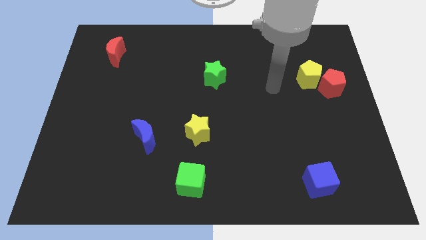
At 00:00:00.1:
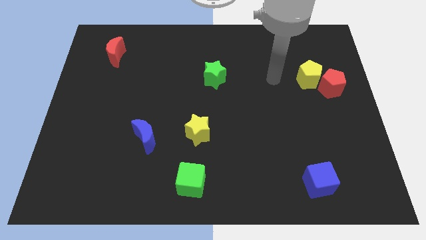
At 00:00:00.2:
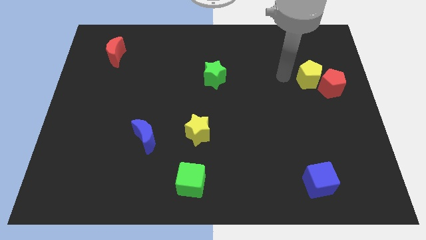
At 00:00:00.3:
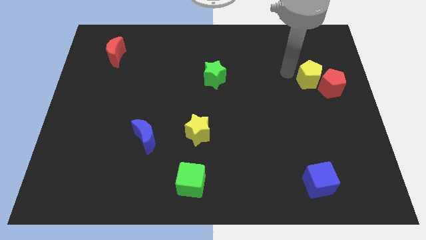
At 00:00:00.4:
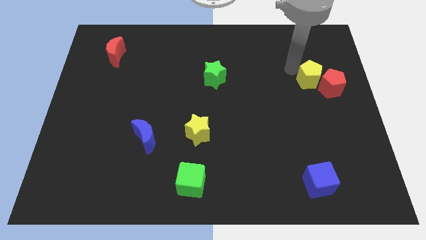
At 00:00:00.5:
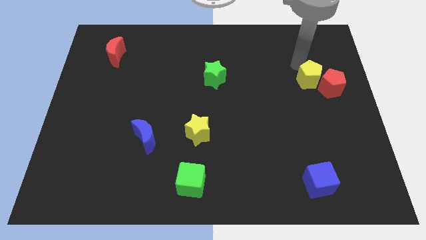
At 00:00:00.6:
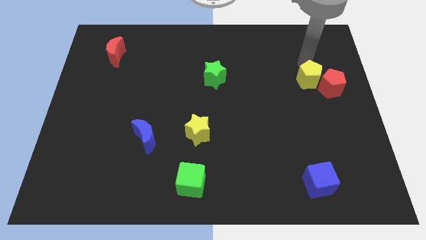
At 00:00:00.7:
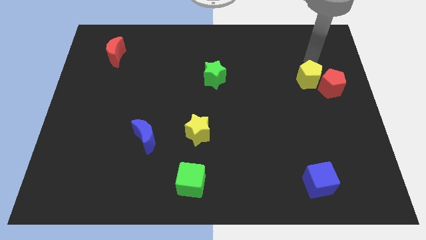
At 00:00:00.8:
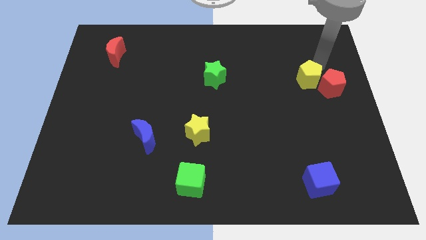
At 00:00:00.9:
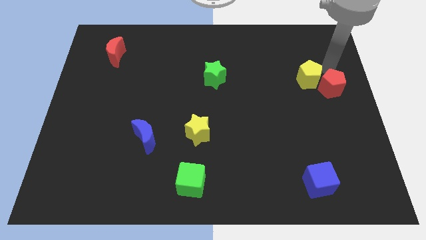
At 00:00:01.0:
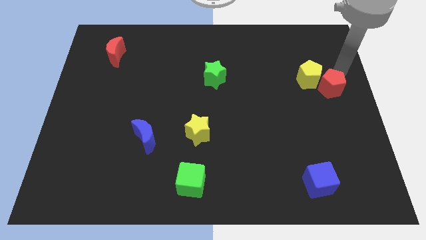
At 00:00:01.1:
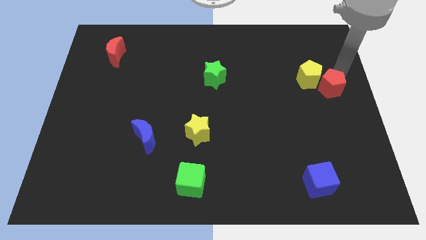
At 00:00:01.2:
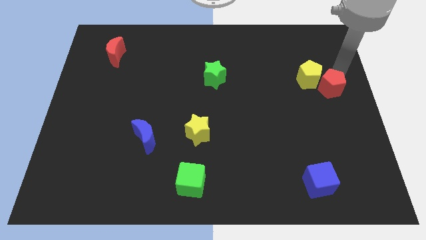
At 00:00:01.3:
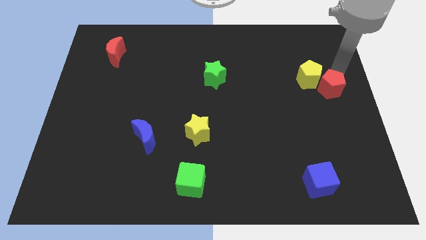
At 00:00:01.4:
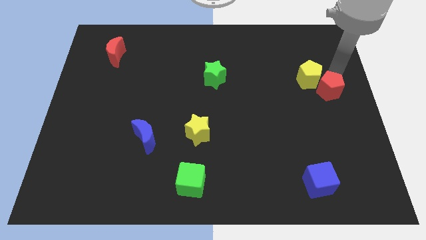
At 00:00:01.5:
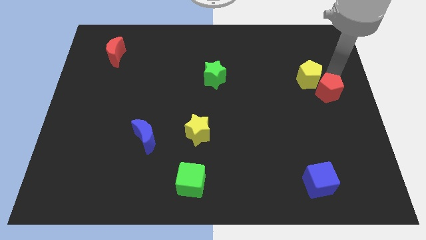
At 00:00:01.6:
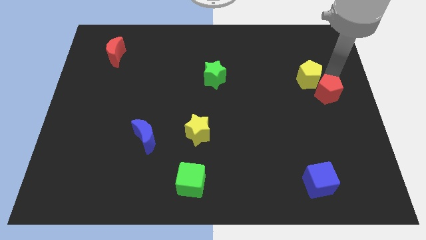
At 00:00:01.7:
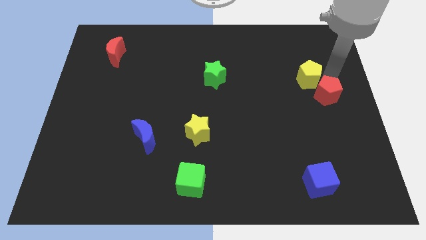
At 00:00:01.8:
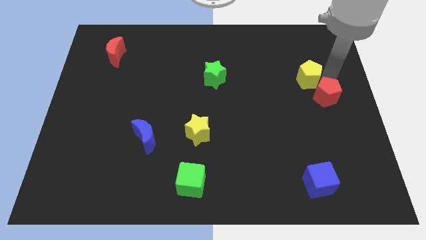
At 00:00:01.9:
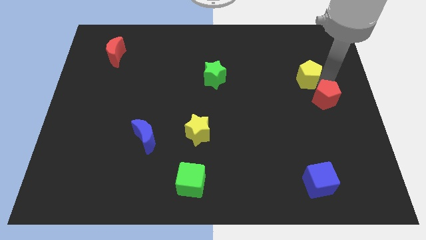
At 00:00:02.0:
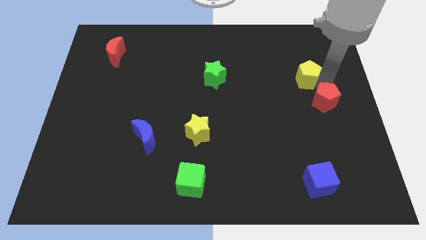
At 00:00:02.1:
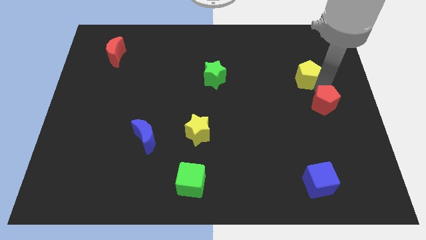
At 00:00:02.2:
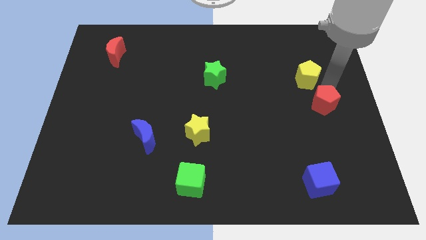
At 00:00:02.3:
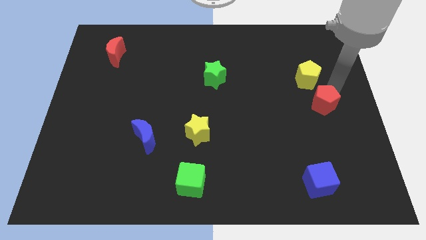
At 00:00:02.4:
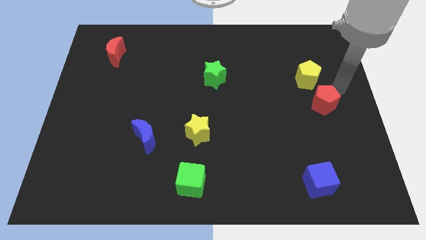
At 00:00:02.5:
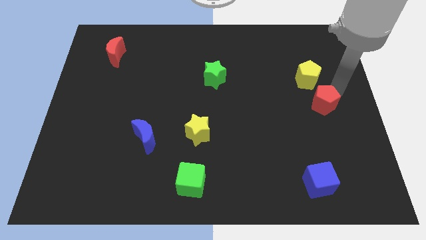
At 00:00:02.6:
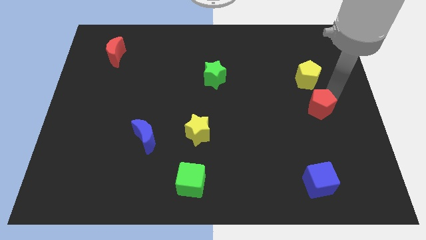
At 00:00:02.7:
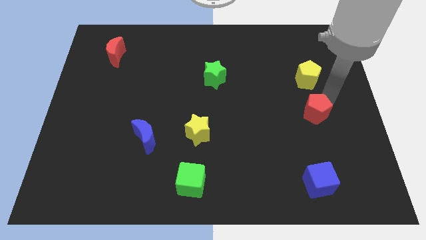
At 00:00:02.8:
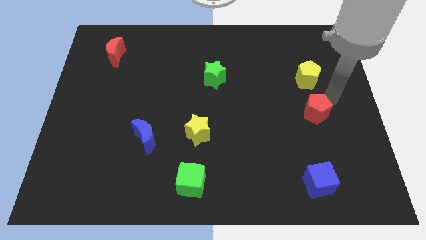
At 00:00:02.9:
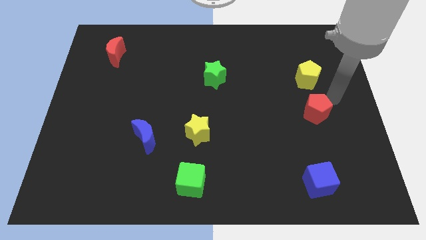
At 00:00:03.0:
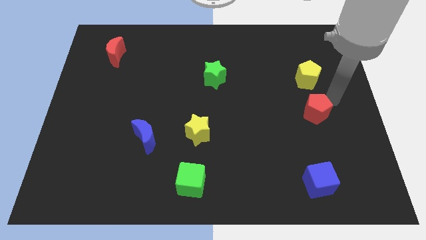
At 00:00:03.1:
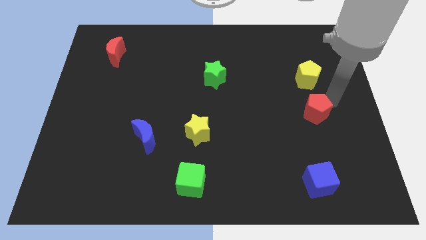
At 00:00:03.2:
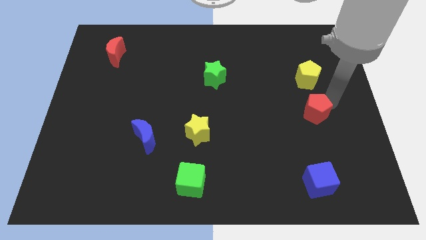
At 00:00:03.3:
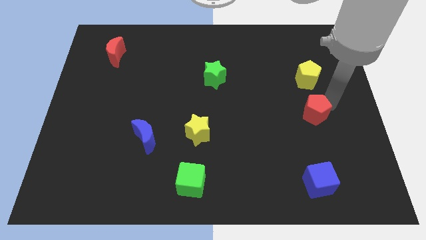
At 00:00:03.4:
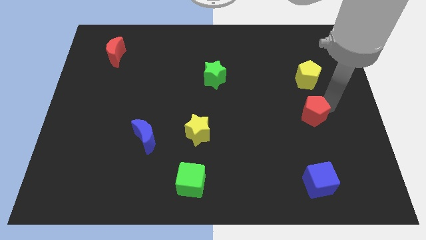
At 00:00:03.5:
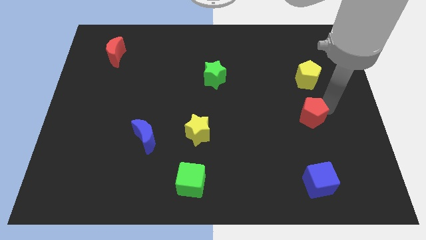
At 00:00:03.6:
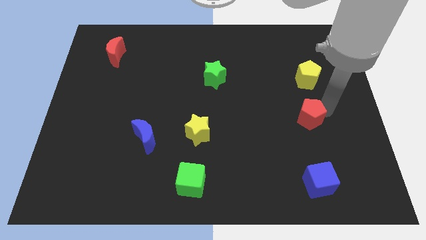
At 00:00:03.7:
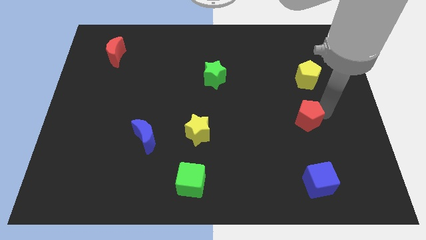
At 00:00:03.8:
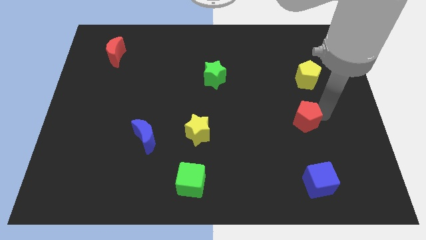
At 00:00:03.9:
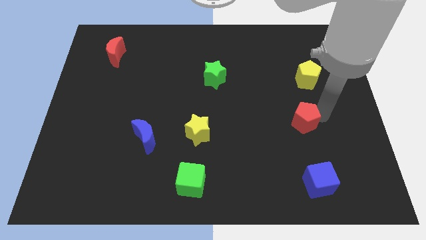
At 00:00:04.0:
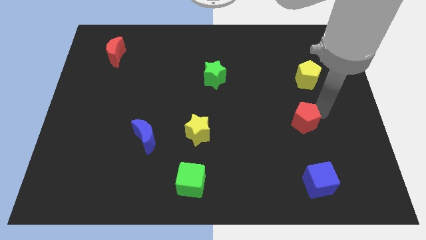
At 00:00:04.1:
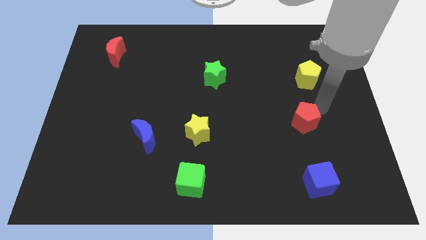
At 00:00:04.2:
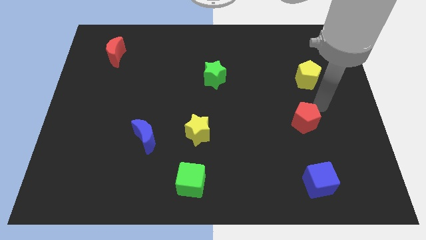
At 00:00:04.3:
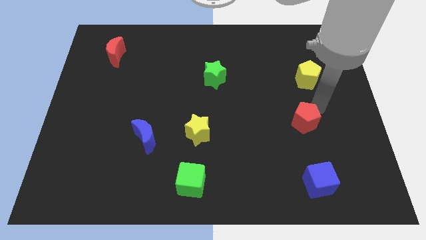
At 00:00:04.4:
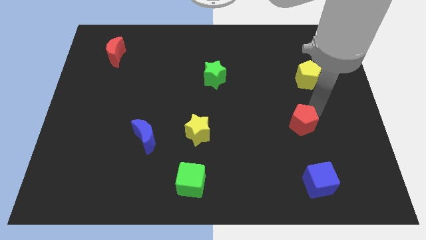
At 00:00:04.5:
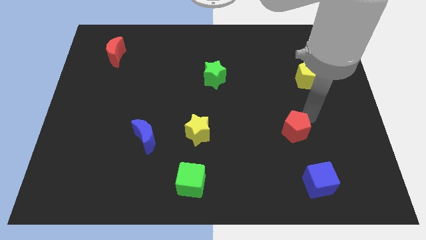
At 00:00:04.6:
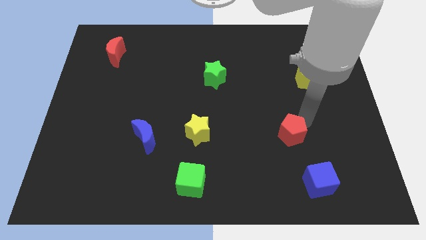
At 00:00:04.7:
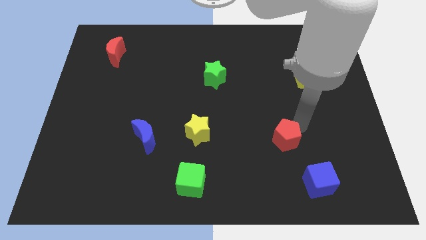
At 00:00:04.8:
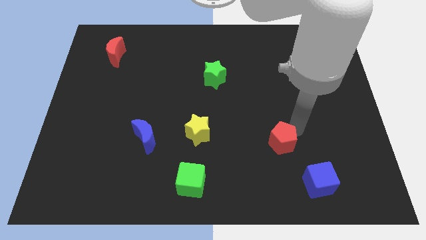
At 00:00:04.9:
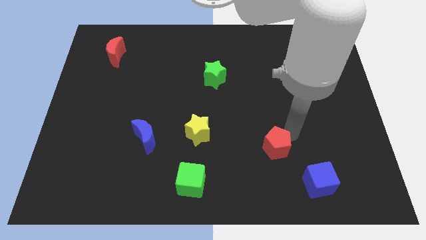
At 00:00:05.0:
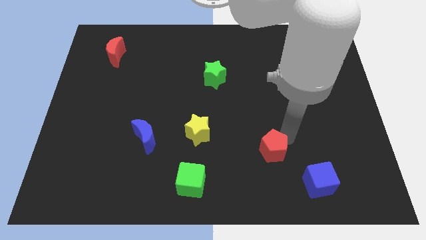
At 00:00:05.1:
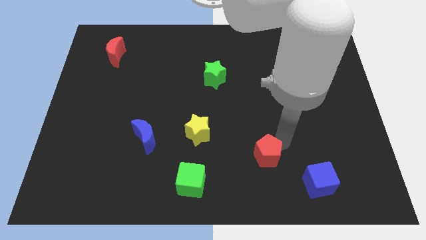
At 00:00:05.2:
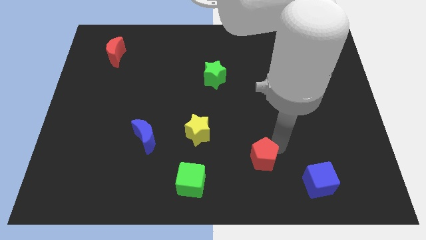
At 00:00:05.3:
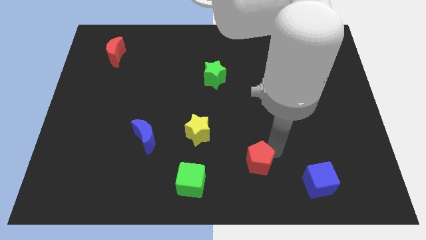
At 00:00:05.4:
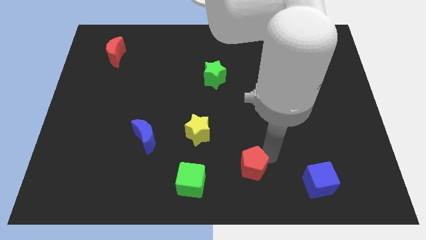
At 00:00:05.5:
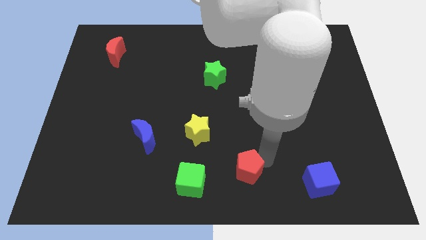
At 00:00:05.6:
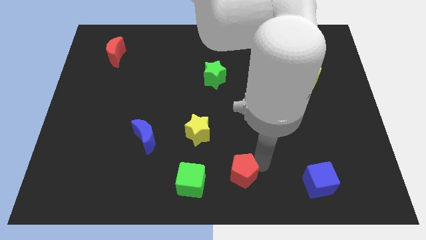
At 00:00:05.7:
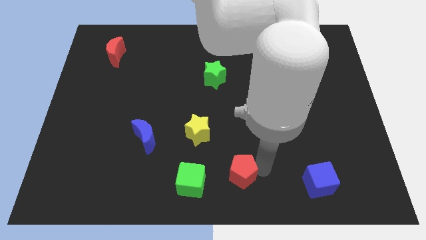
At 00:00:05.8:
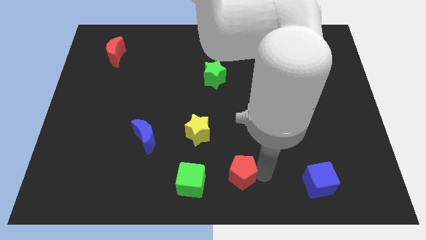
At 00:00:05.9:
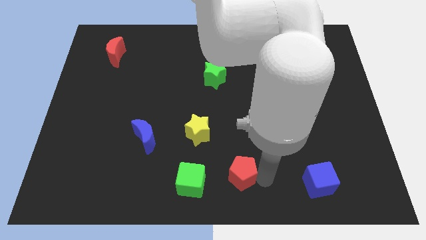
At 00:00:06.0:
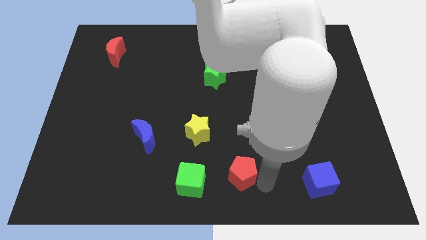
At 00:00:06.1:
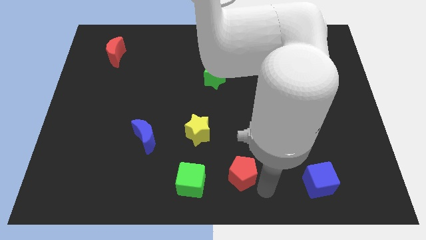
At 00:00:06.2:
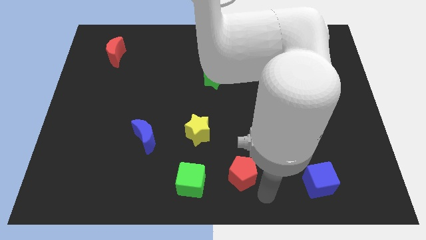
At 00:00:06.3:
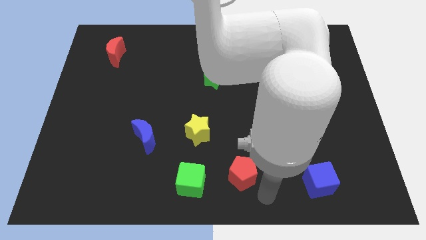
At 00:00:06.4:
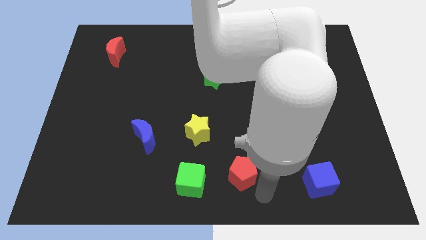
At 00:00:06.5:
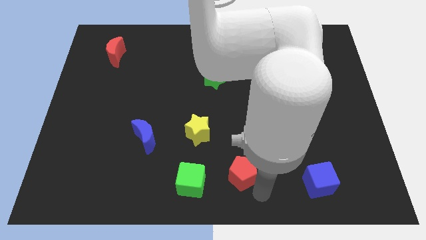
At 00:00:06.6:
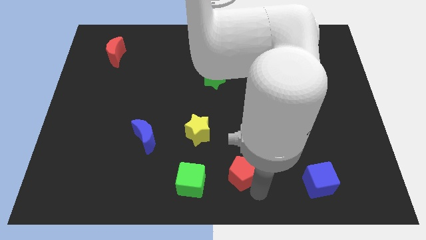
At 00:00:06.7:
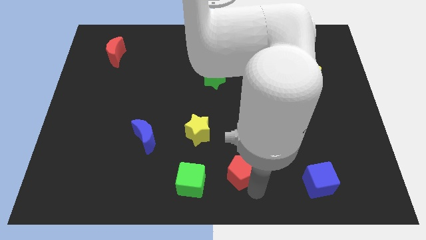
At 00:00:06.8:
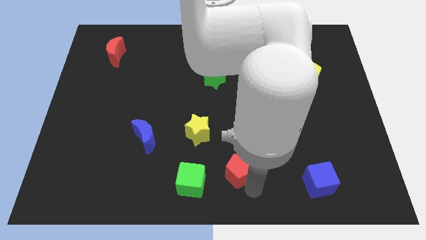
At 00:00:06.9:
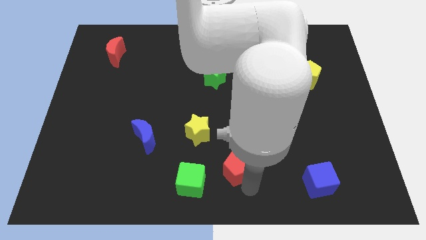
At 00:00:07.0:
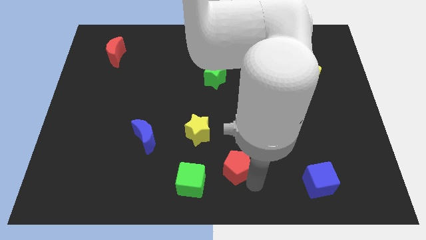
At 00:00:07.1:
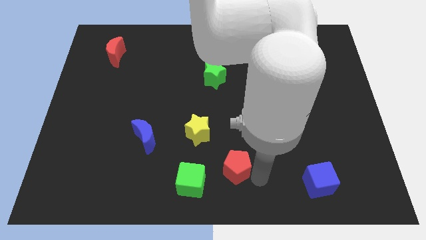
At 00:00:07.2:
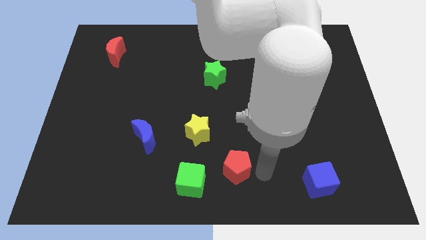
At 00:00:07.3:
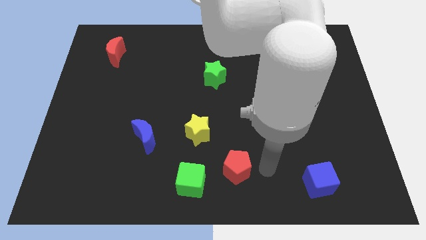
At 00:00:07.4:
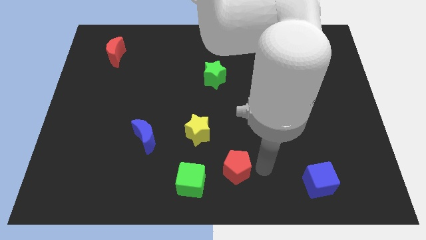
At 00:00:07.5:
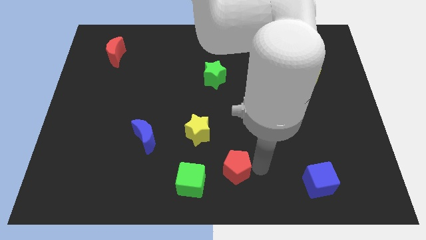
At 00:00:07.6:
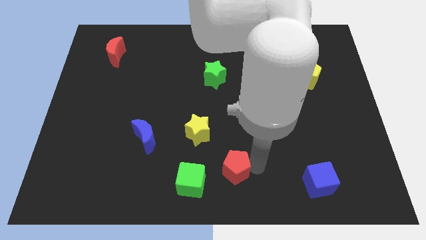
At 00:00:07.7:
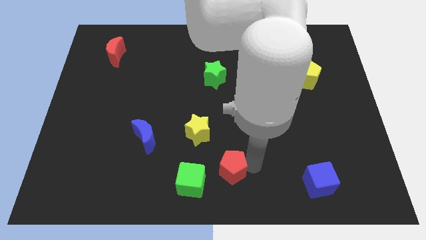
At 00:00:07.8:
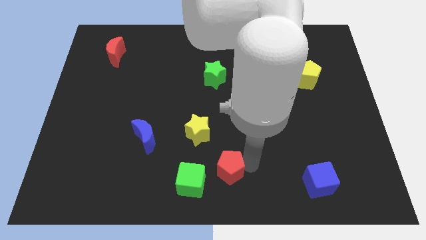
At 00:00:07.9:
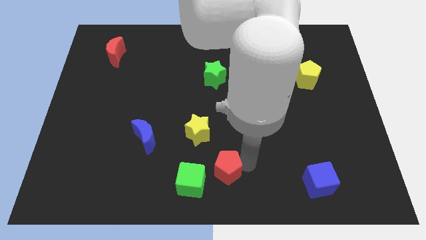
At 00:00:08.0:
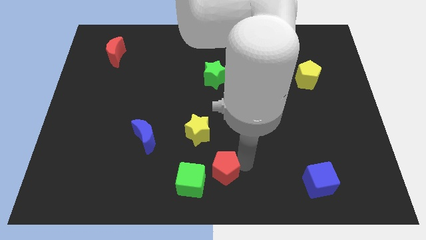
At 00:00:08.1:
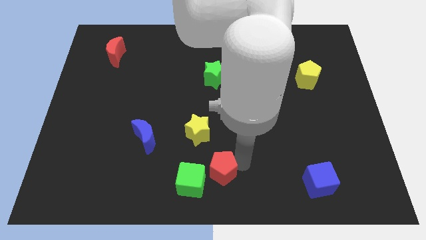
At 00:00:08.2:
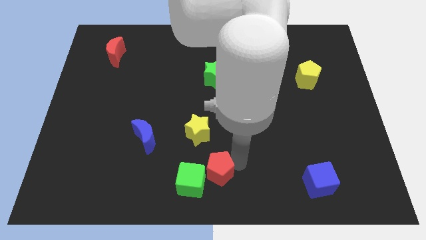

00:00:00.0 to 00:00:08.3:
slide the red pentagon to the green cube

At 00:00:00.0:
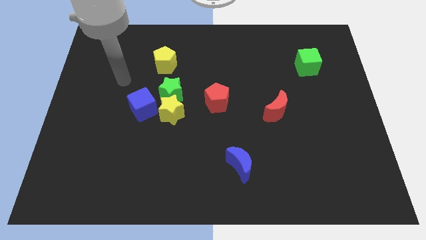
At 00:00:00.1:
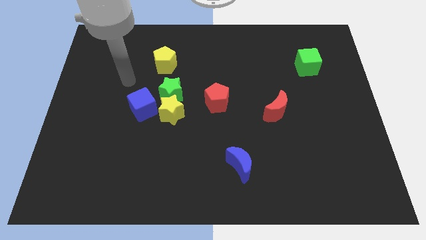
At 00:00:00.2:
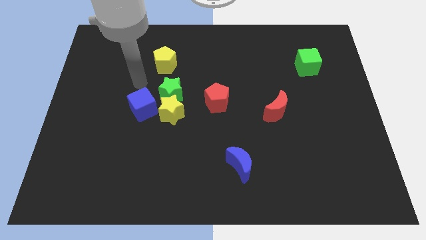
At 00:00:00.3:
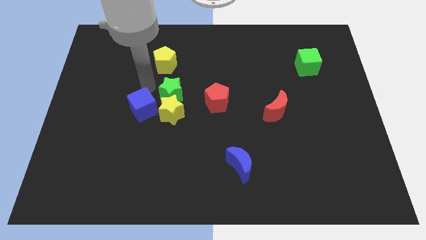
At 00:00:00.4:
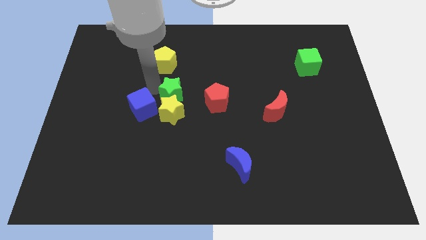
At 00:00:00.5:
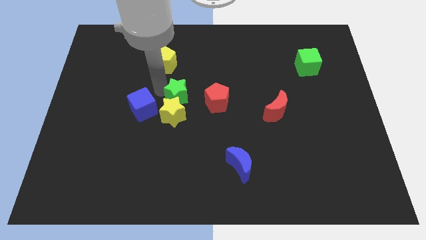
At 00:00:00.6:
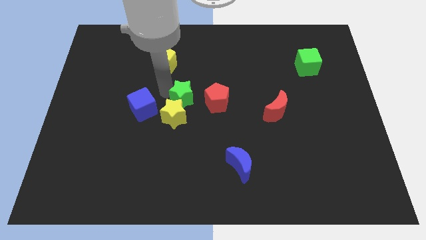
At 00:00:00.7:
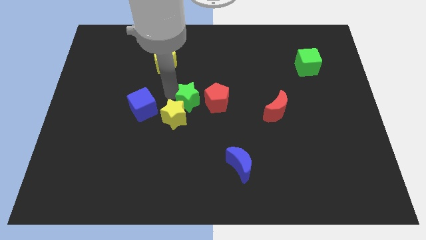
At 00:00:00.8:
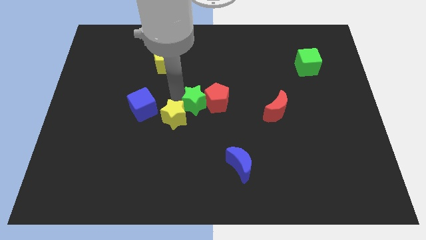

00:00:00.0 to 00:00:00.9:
move the green star close to the red pentagon
